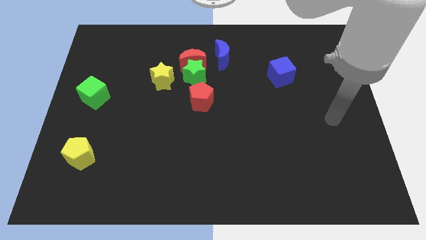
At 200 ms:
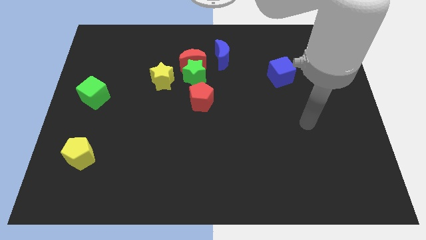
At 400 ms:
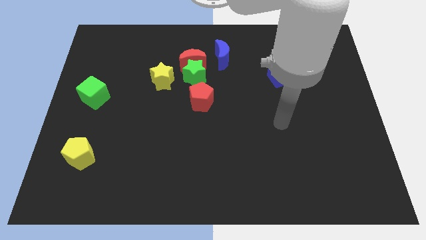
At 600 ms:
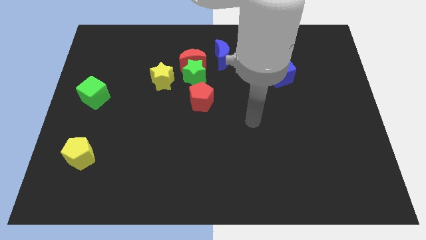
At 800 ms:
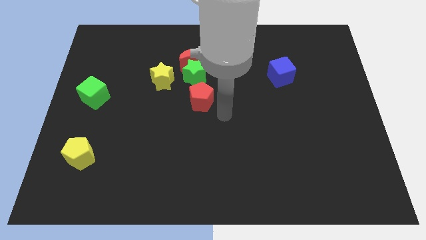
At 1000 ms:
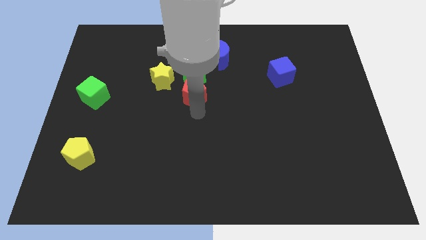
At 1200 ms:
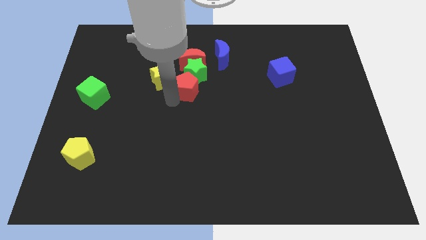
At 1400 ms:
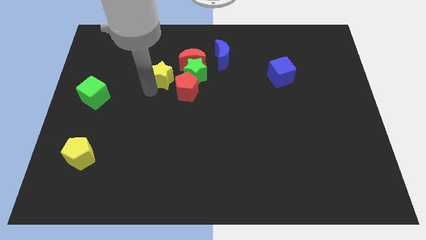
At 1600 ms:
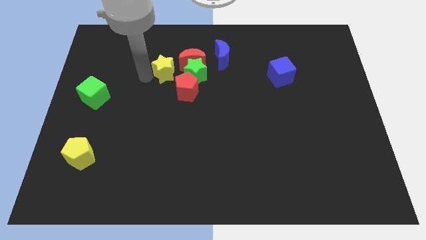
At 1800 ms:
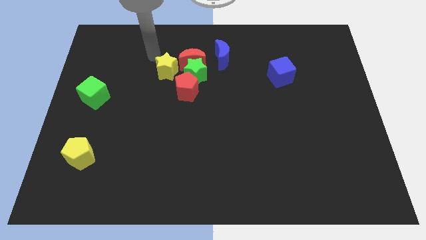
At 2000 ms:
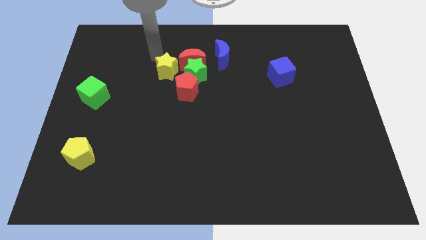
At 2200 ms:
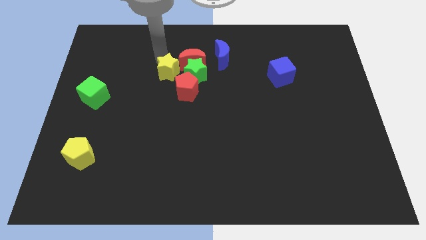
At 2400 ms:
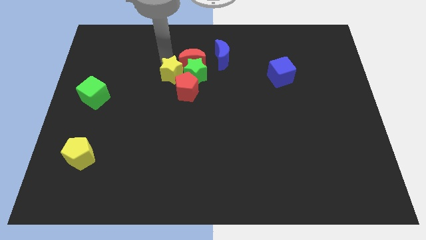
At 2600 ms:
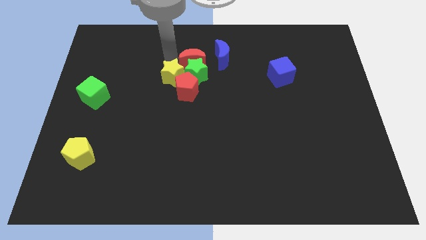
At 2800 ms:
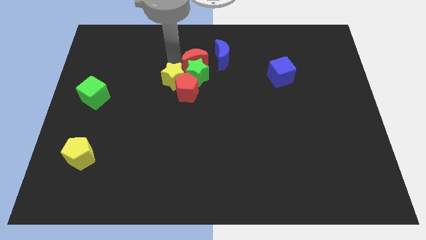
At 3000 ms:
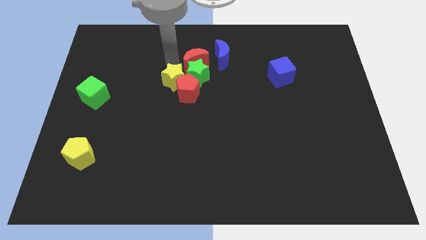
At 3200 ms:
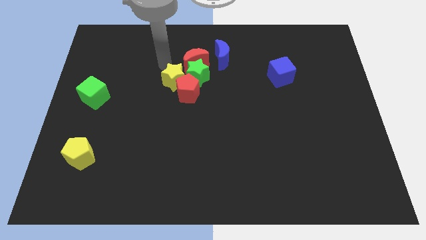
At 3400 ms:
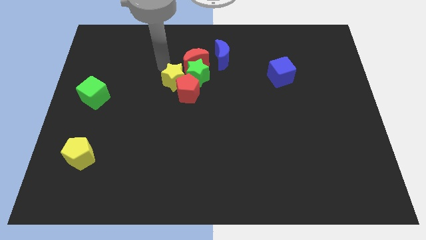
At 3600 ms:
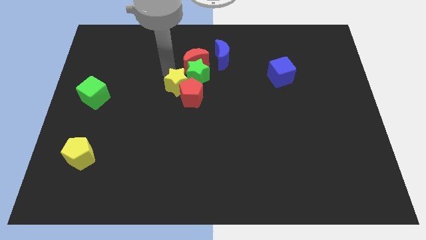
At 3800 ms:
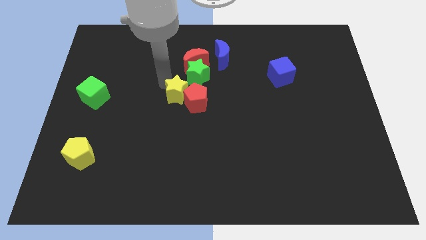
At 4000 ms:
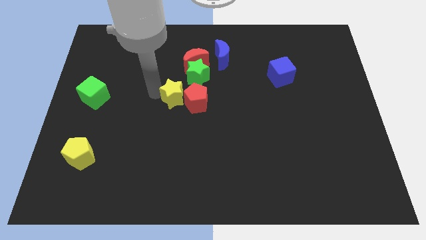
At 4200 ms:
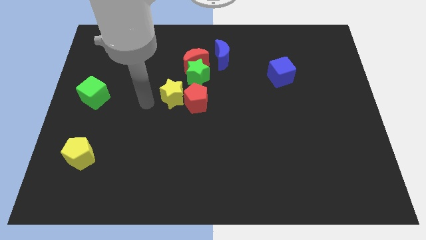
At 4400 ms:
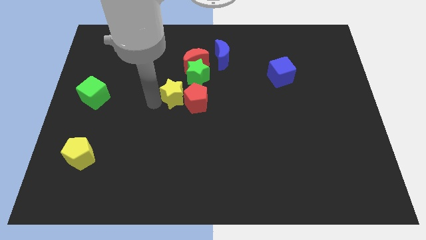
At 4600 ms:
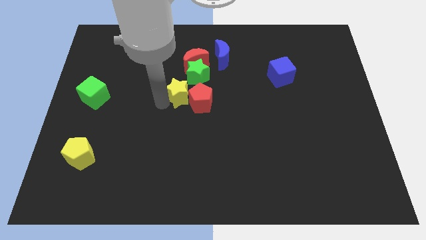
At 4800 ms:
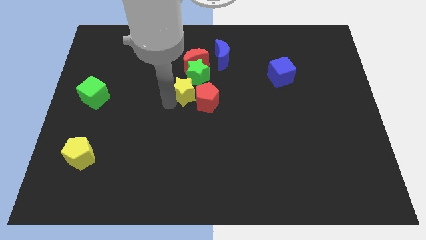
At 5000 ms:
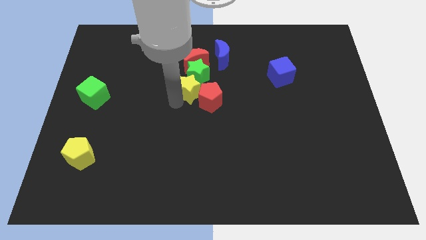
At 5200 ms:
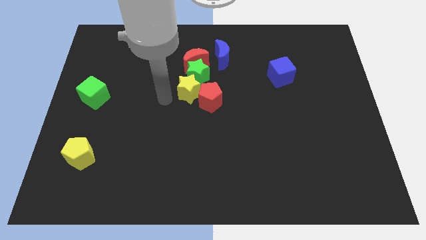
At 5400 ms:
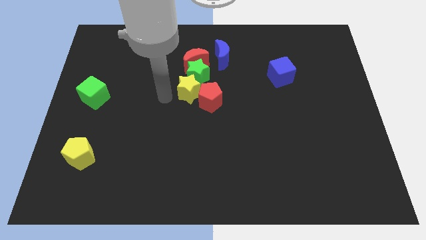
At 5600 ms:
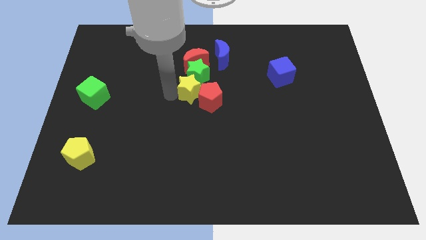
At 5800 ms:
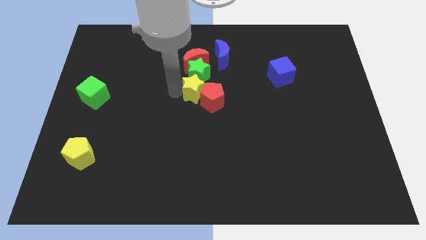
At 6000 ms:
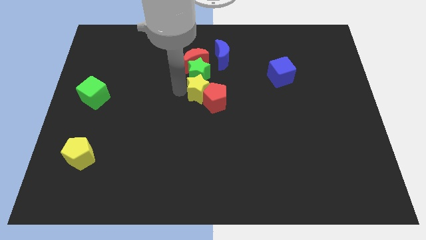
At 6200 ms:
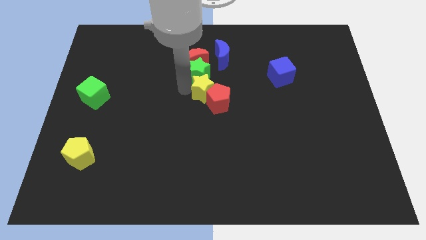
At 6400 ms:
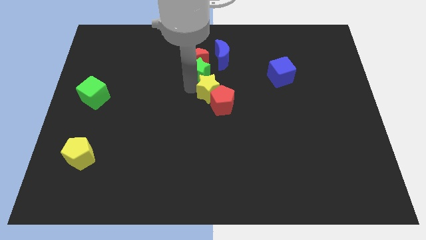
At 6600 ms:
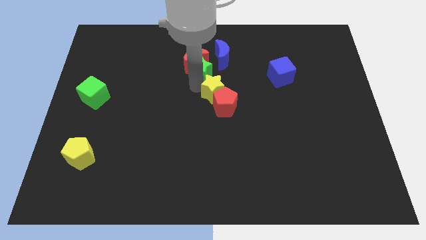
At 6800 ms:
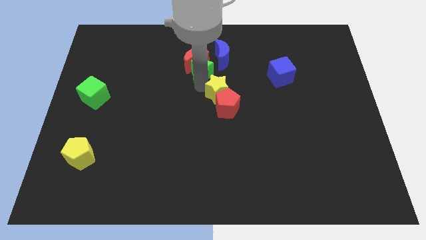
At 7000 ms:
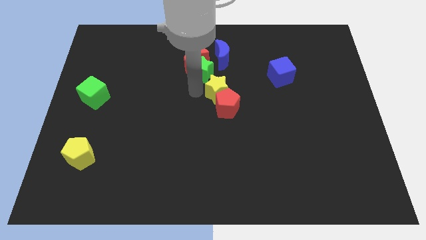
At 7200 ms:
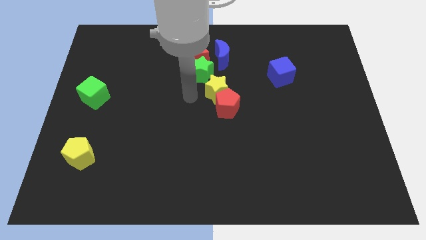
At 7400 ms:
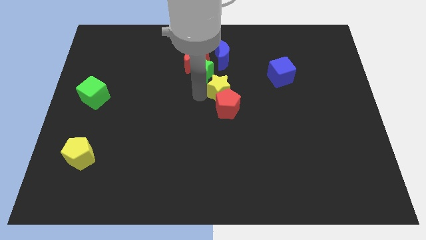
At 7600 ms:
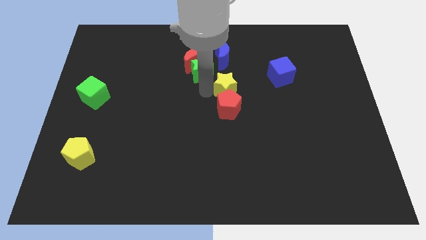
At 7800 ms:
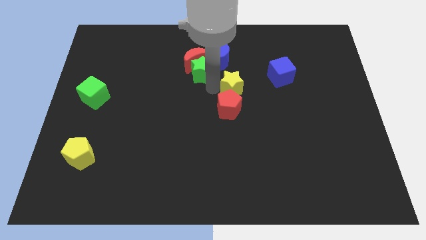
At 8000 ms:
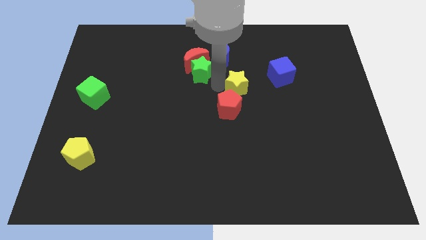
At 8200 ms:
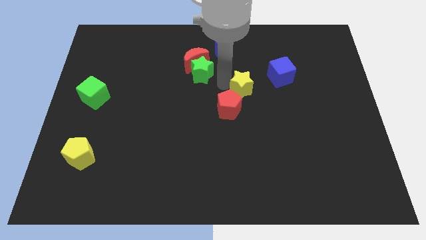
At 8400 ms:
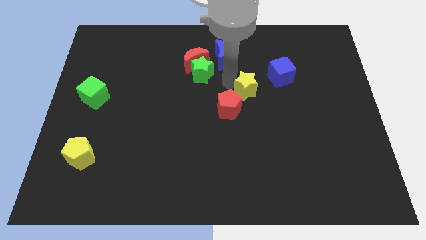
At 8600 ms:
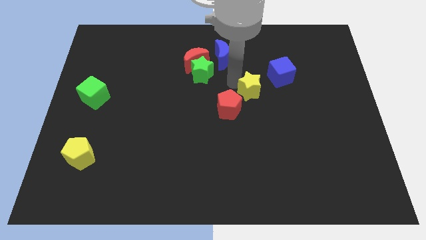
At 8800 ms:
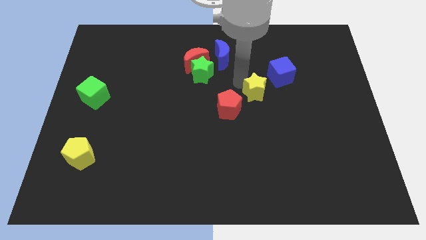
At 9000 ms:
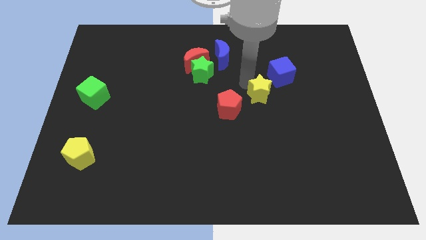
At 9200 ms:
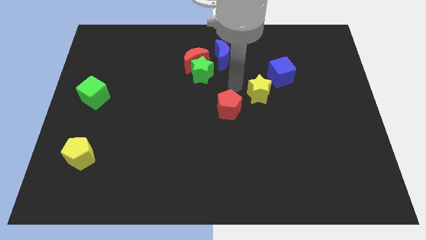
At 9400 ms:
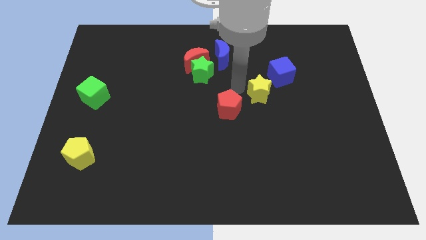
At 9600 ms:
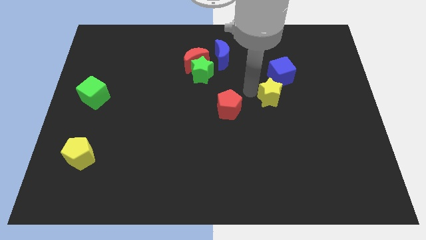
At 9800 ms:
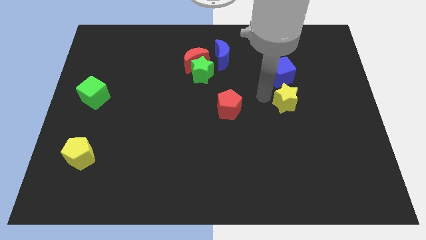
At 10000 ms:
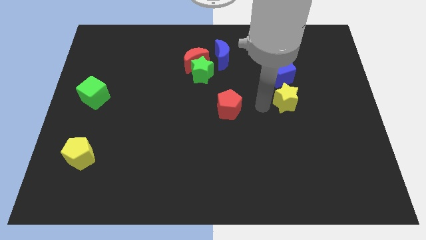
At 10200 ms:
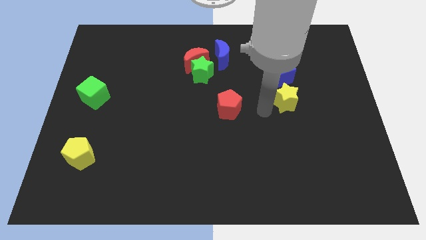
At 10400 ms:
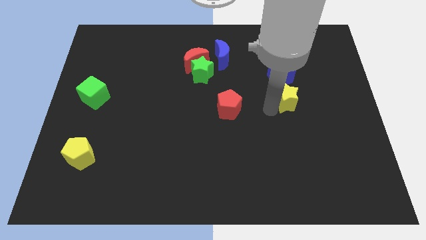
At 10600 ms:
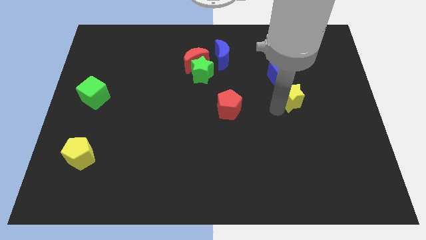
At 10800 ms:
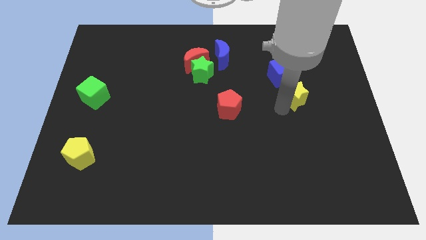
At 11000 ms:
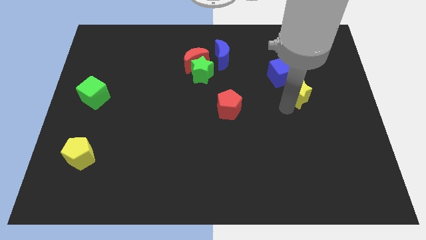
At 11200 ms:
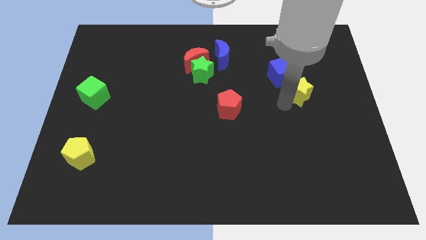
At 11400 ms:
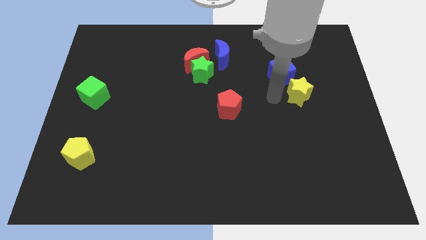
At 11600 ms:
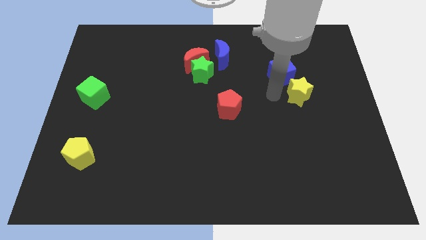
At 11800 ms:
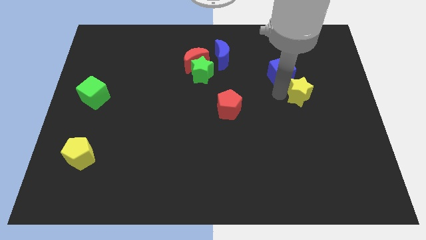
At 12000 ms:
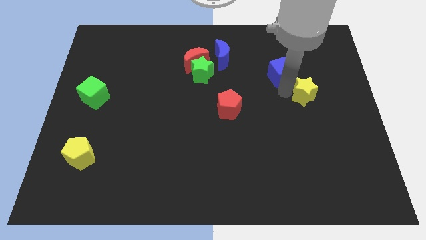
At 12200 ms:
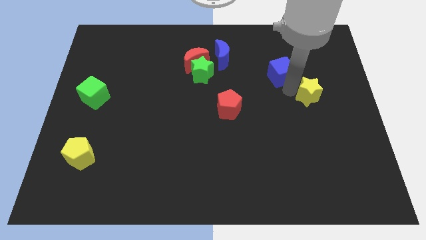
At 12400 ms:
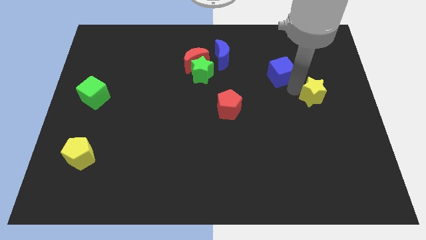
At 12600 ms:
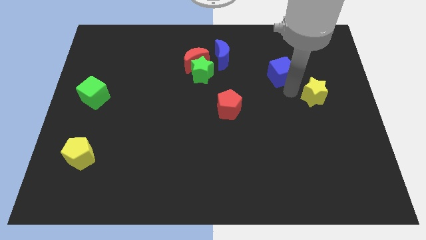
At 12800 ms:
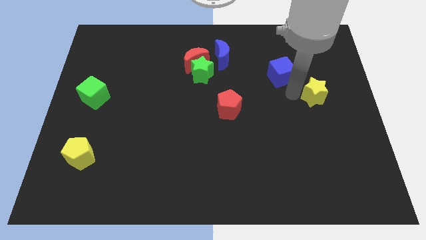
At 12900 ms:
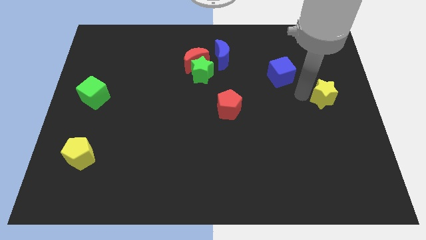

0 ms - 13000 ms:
move the yellow star to the right side
